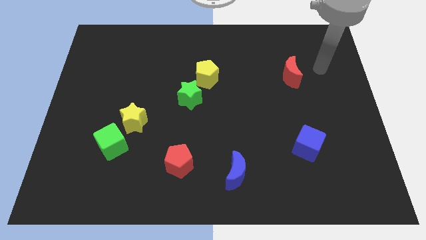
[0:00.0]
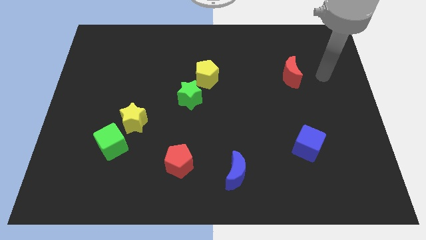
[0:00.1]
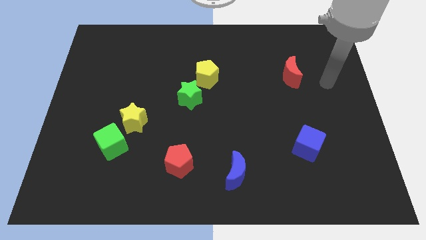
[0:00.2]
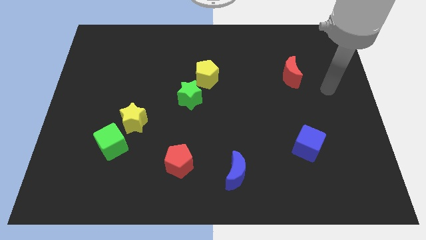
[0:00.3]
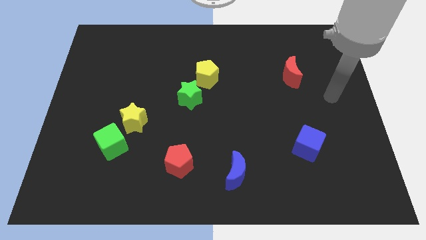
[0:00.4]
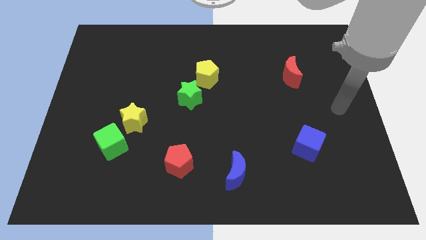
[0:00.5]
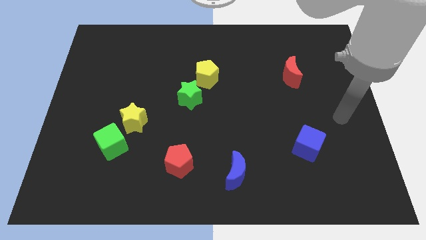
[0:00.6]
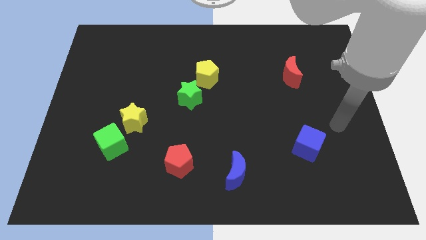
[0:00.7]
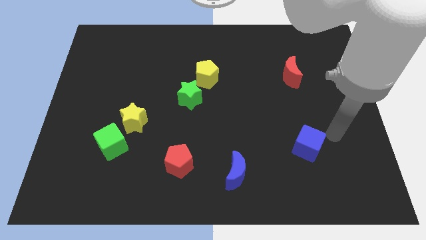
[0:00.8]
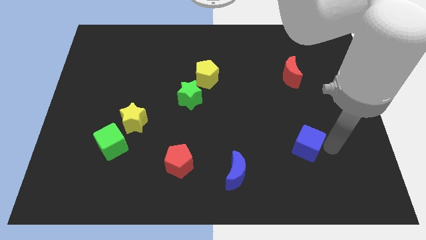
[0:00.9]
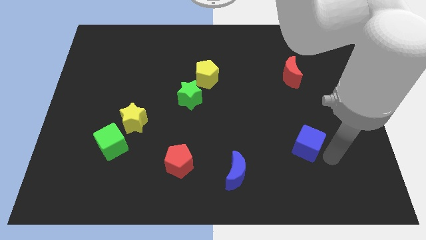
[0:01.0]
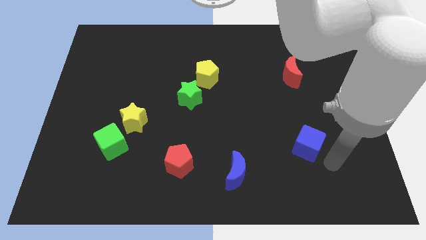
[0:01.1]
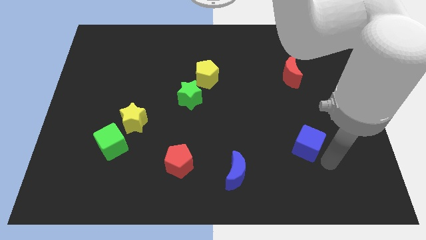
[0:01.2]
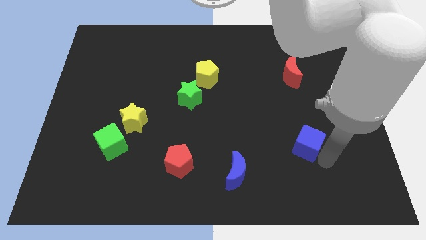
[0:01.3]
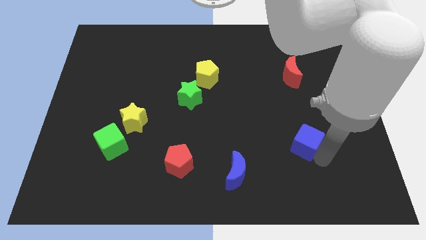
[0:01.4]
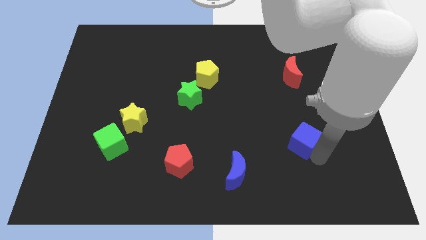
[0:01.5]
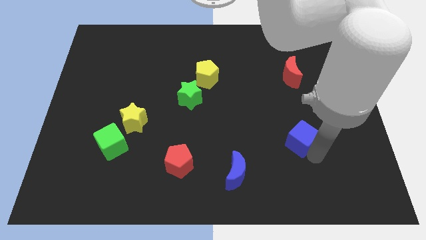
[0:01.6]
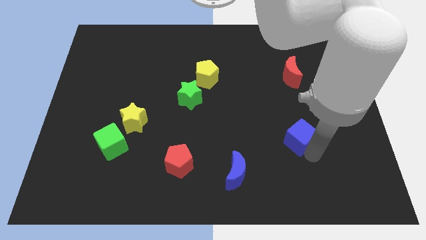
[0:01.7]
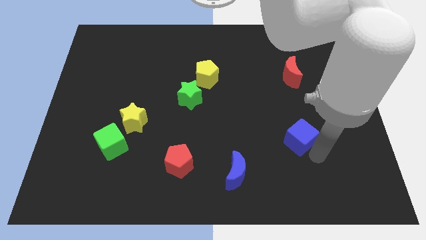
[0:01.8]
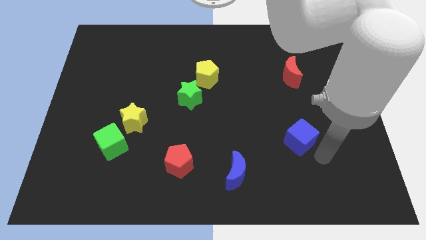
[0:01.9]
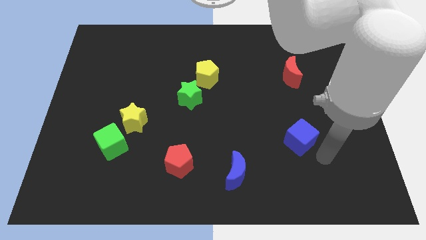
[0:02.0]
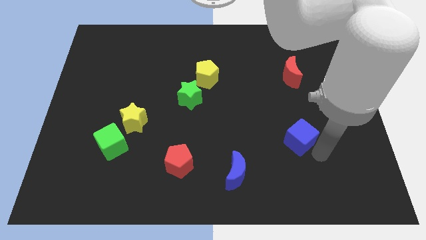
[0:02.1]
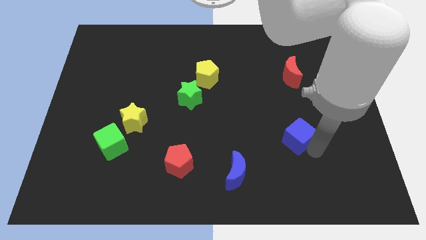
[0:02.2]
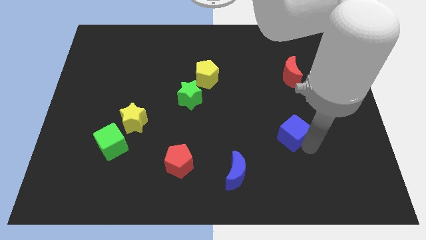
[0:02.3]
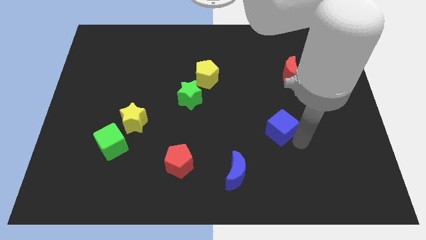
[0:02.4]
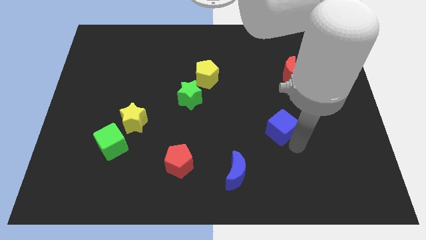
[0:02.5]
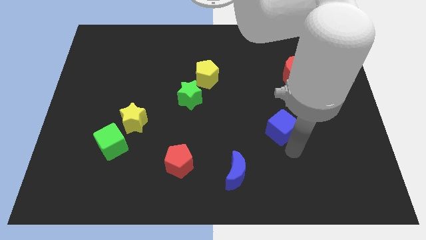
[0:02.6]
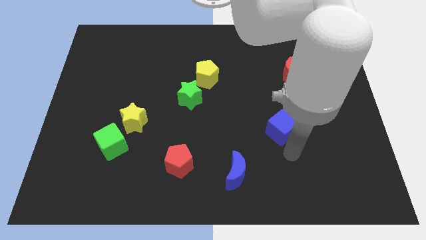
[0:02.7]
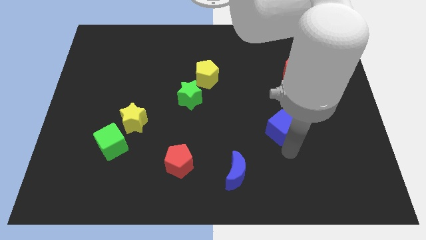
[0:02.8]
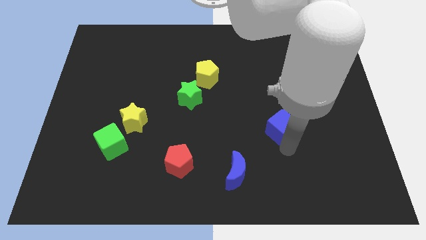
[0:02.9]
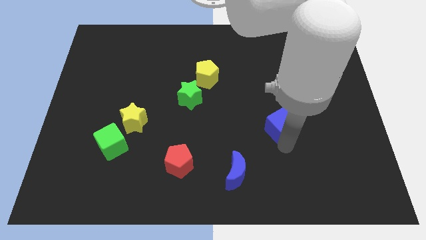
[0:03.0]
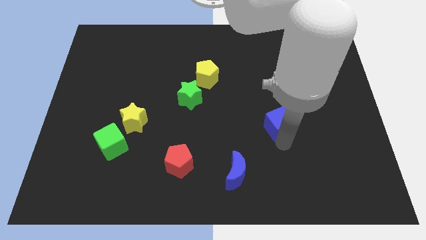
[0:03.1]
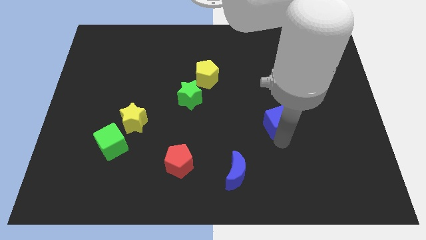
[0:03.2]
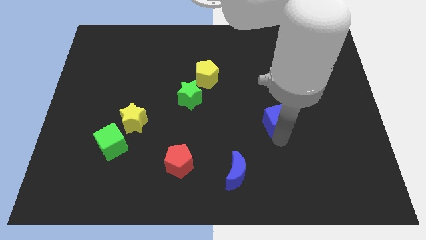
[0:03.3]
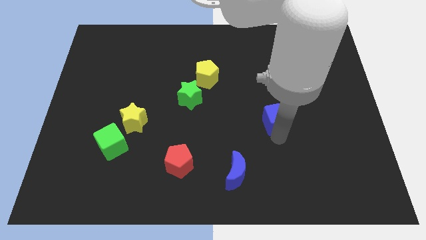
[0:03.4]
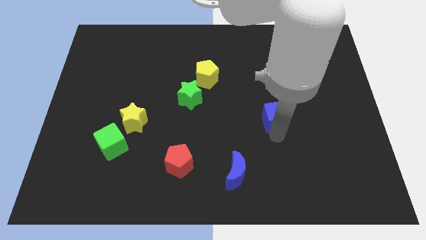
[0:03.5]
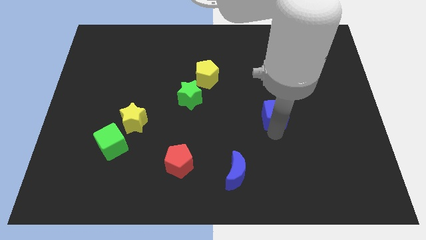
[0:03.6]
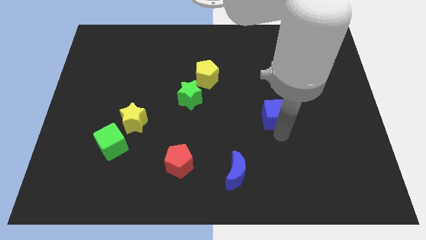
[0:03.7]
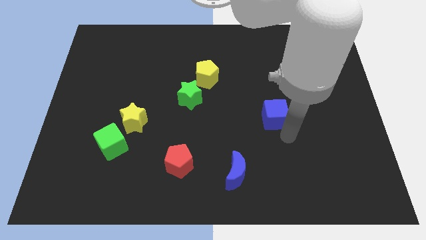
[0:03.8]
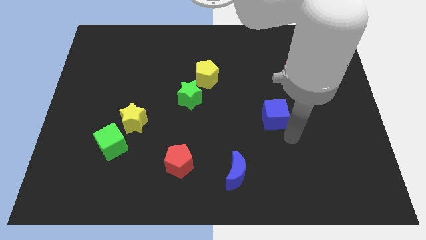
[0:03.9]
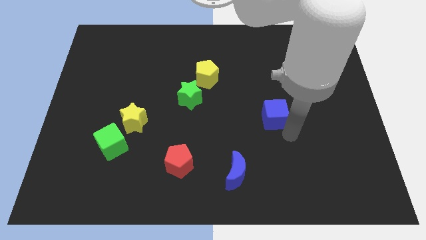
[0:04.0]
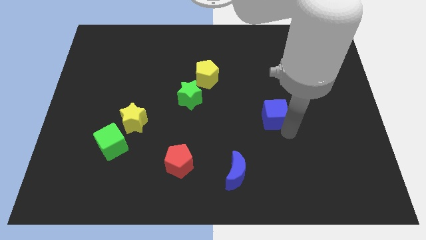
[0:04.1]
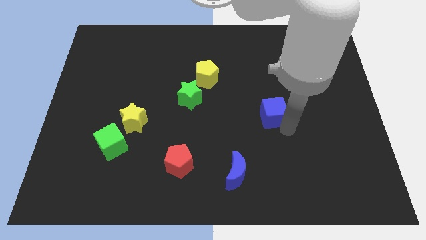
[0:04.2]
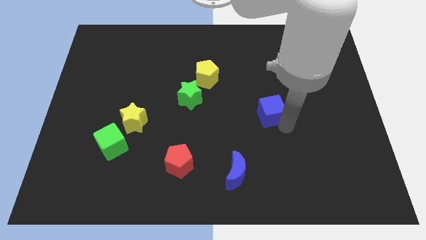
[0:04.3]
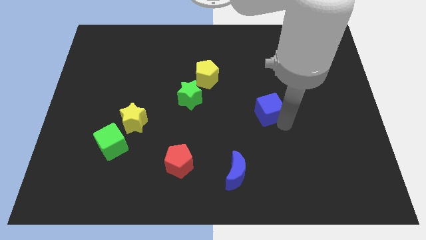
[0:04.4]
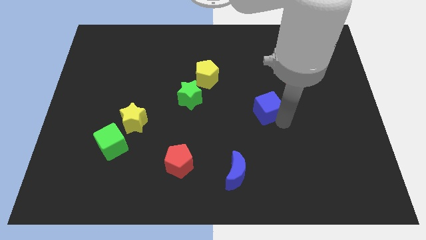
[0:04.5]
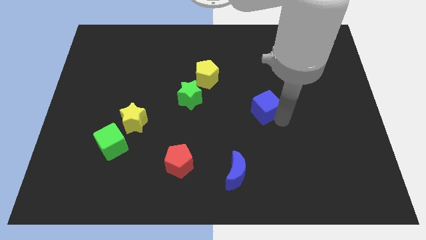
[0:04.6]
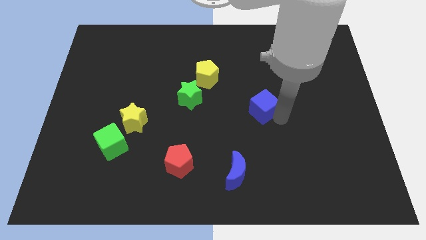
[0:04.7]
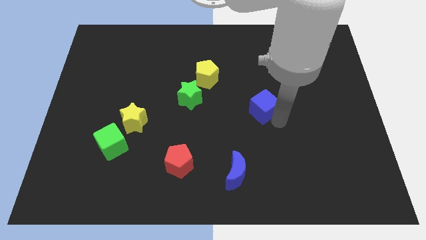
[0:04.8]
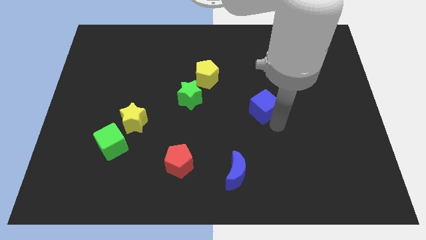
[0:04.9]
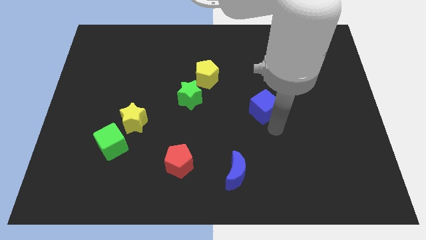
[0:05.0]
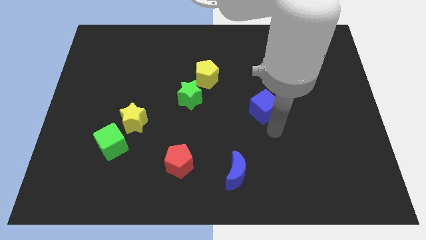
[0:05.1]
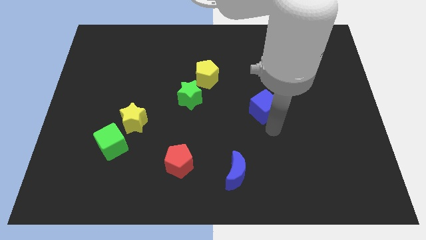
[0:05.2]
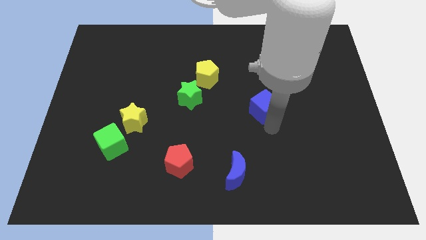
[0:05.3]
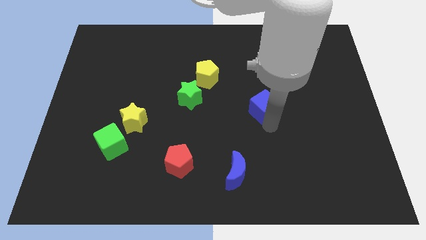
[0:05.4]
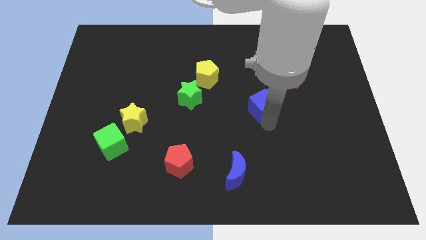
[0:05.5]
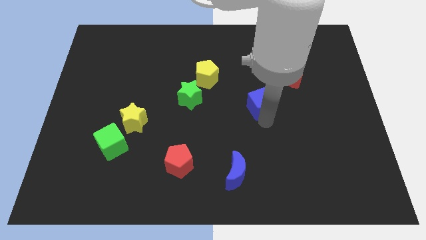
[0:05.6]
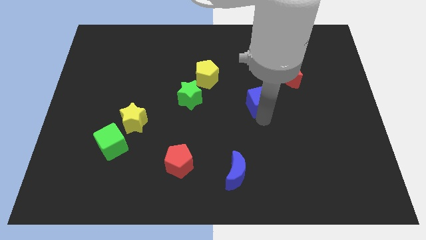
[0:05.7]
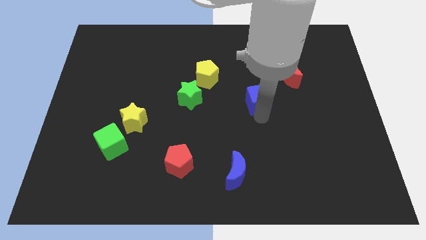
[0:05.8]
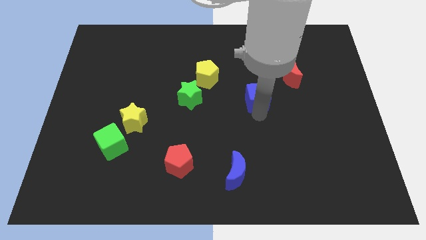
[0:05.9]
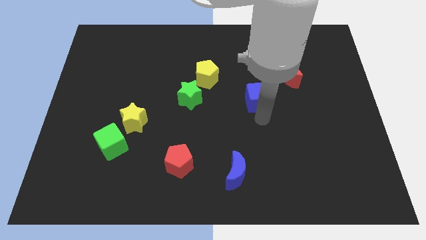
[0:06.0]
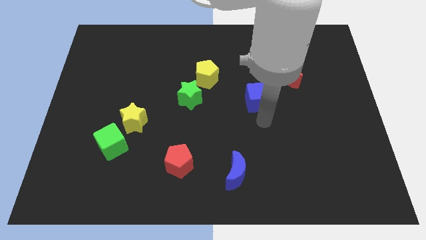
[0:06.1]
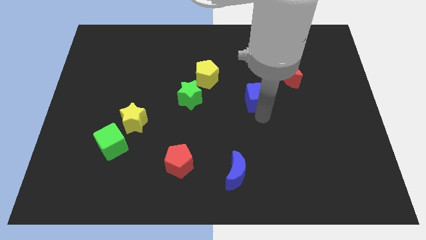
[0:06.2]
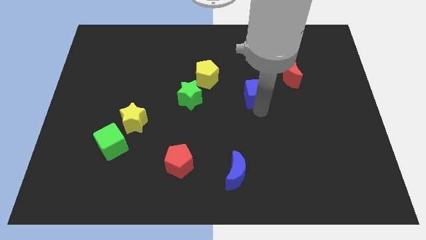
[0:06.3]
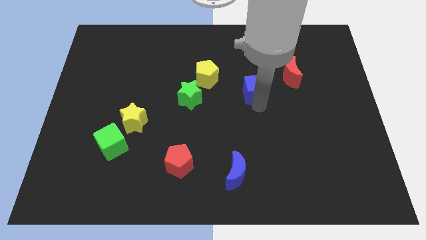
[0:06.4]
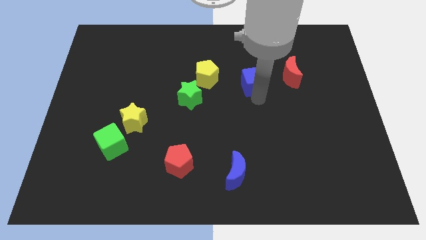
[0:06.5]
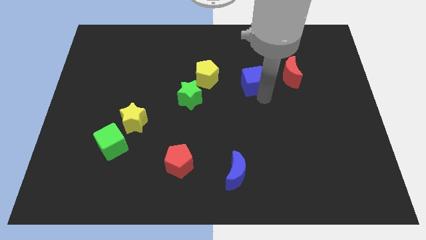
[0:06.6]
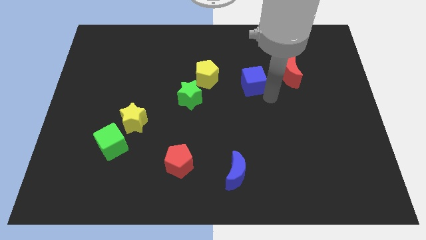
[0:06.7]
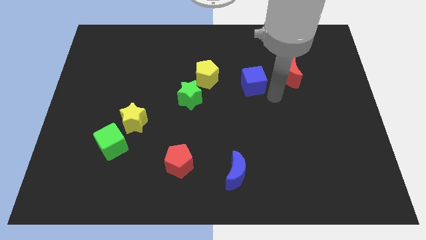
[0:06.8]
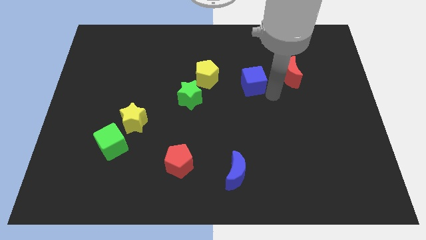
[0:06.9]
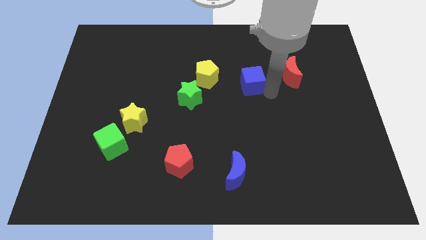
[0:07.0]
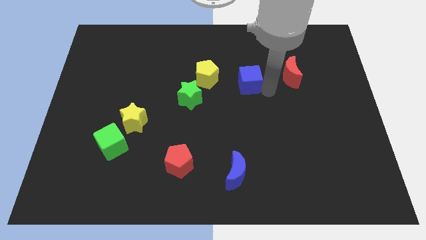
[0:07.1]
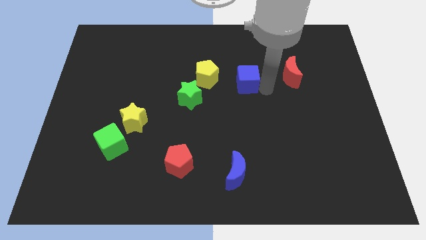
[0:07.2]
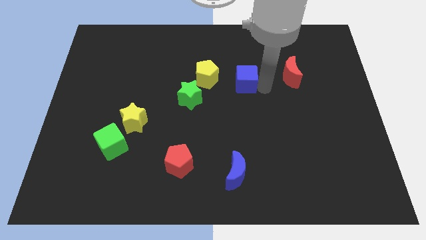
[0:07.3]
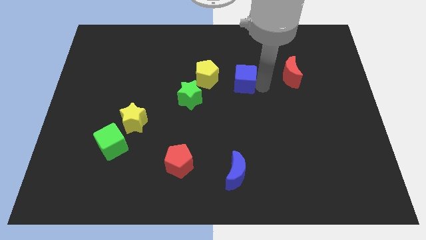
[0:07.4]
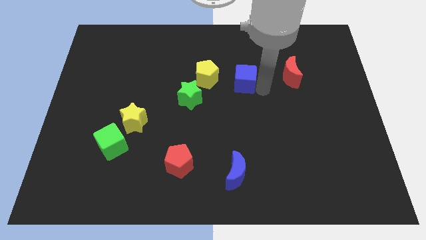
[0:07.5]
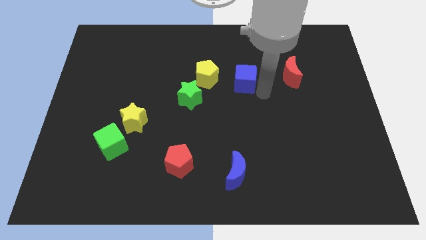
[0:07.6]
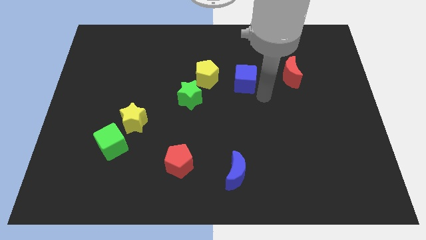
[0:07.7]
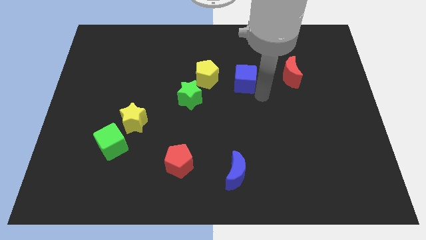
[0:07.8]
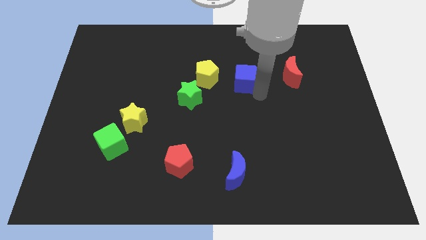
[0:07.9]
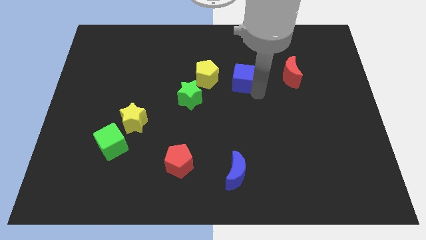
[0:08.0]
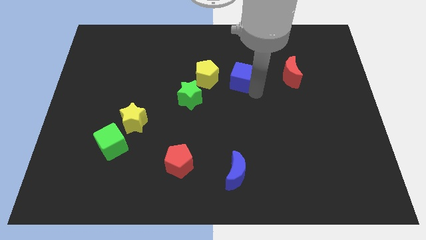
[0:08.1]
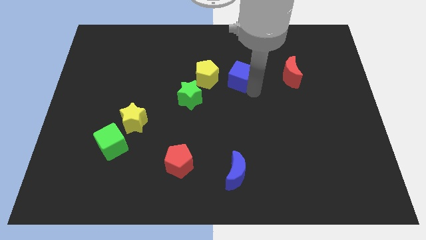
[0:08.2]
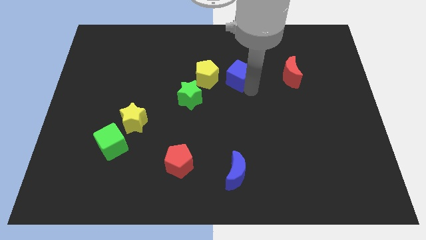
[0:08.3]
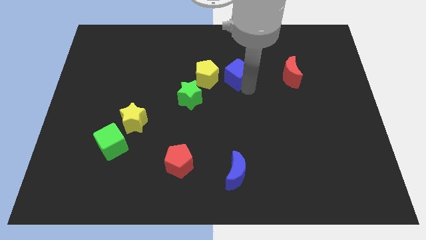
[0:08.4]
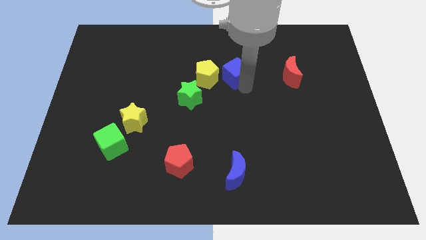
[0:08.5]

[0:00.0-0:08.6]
slide the blue cube to the top right side of the yellow pentagon
